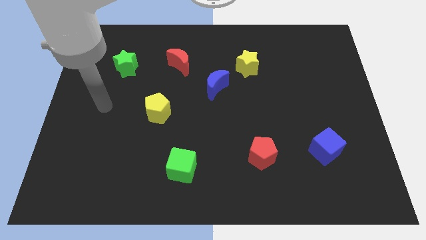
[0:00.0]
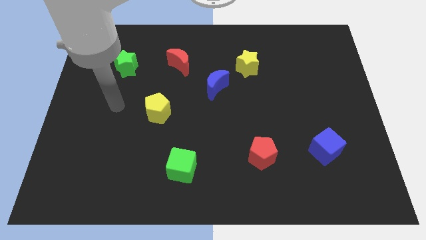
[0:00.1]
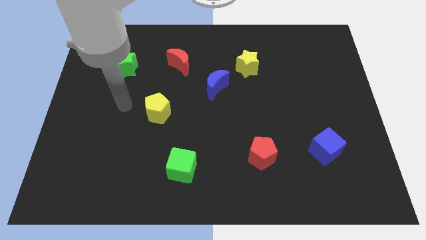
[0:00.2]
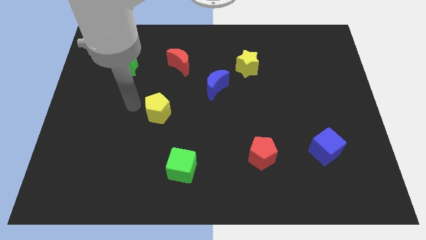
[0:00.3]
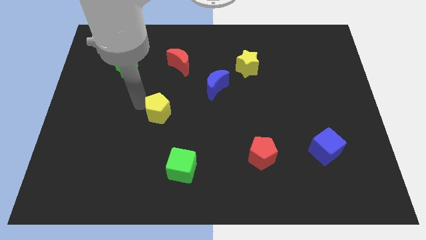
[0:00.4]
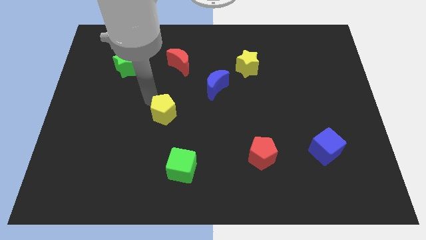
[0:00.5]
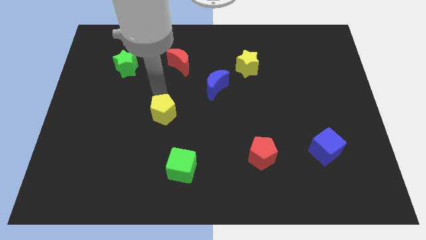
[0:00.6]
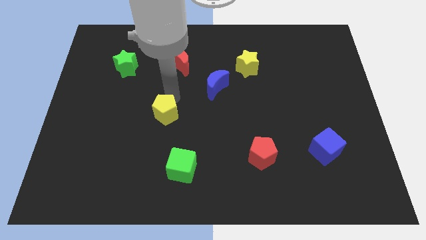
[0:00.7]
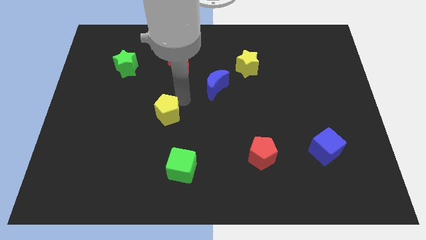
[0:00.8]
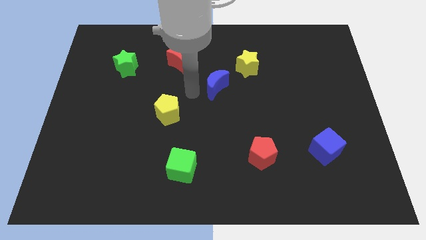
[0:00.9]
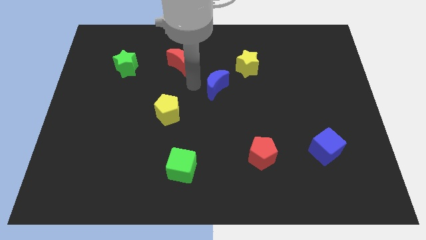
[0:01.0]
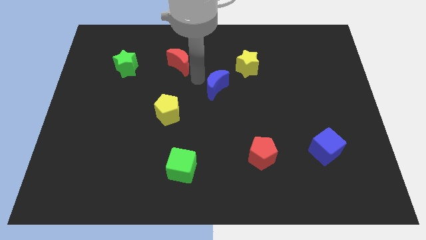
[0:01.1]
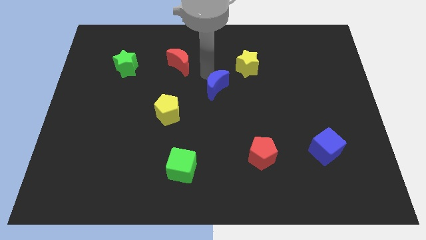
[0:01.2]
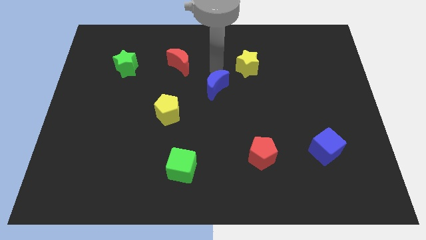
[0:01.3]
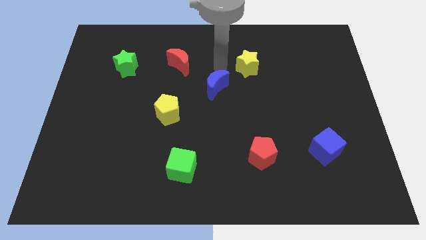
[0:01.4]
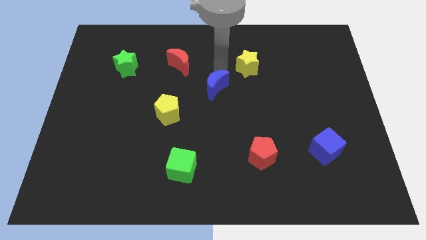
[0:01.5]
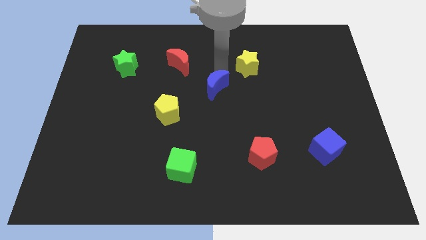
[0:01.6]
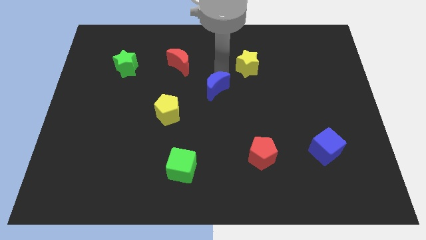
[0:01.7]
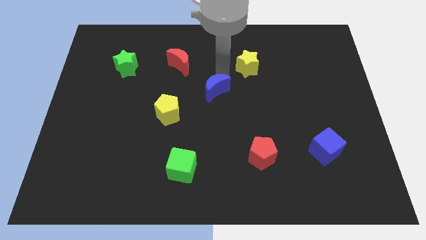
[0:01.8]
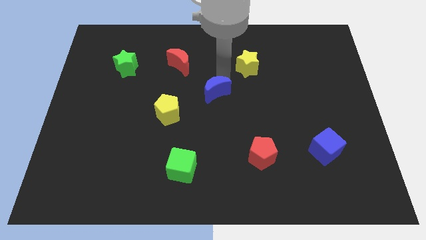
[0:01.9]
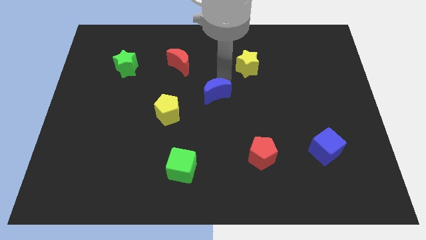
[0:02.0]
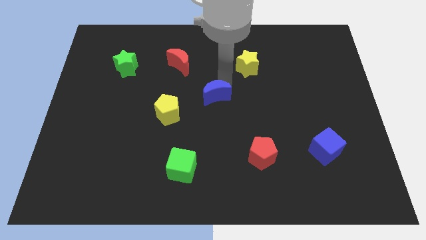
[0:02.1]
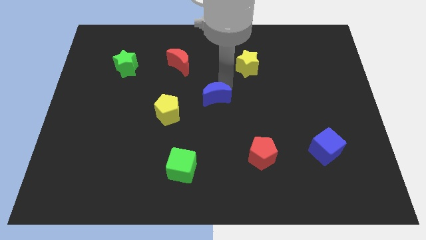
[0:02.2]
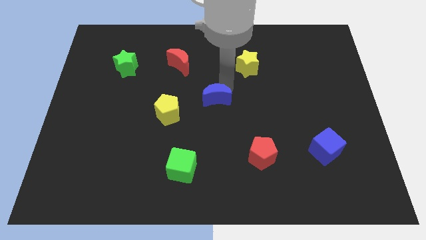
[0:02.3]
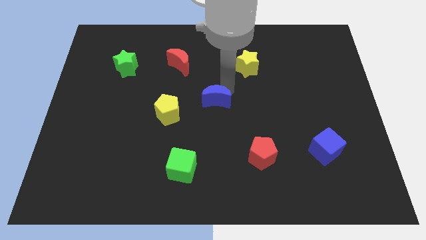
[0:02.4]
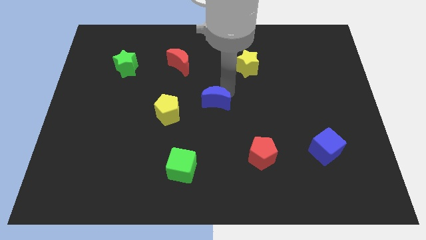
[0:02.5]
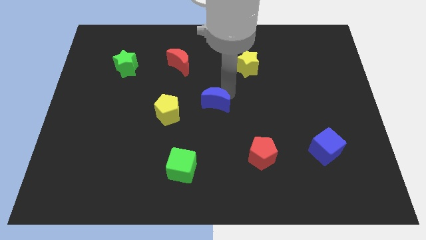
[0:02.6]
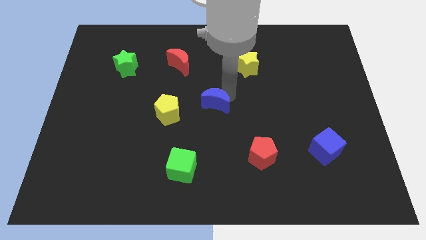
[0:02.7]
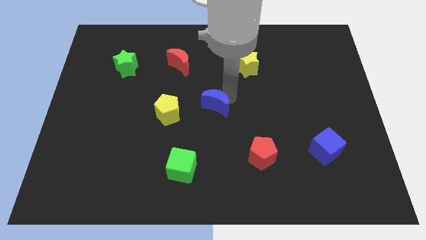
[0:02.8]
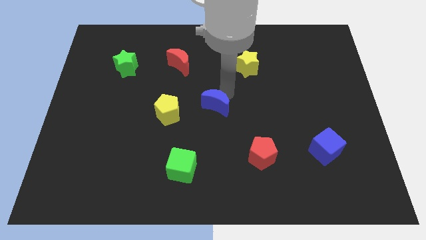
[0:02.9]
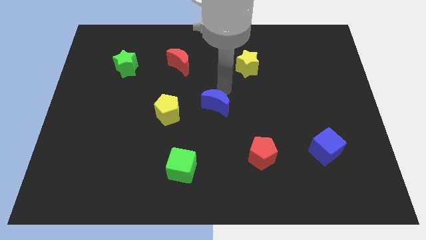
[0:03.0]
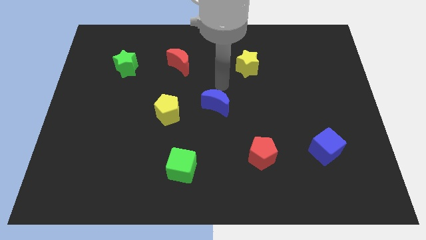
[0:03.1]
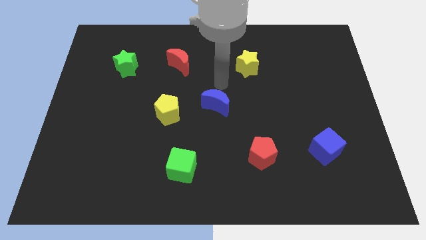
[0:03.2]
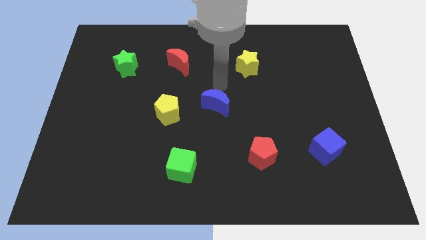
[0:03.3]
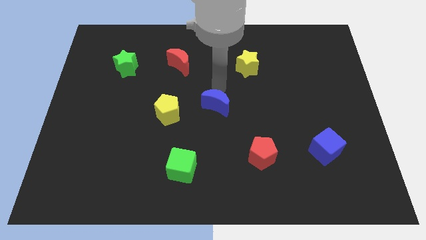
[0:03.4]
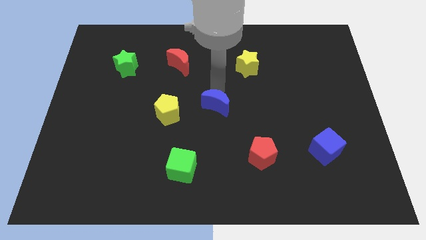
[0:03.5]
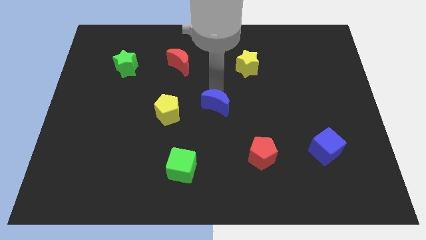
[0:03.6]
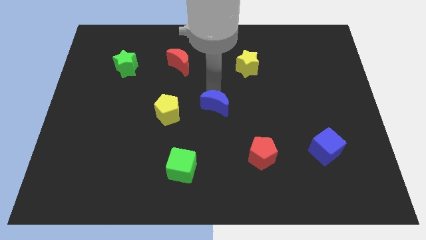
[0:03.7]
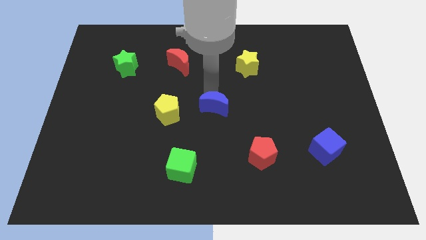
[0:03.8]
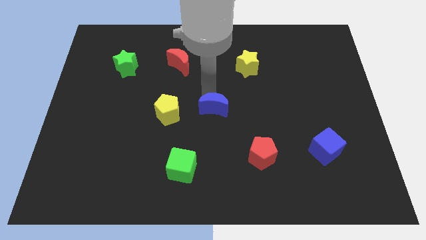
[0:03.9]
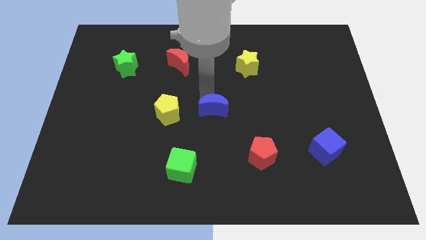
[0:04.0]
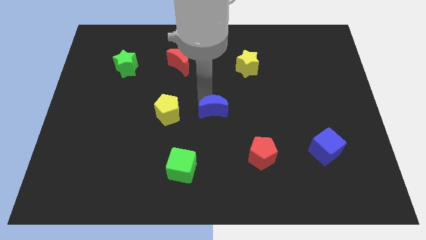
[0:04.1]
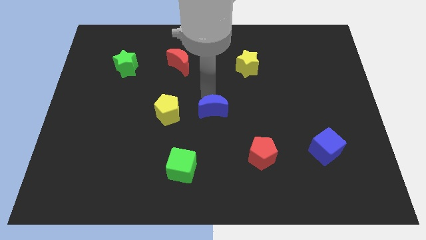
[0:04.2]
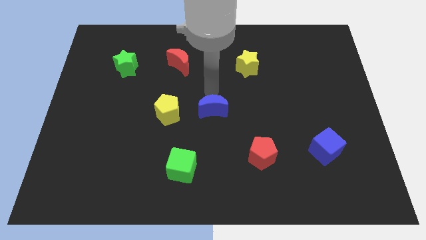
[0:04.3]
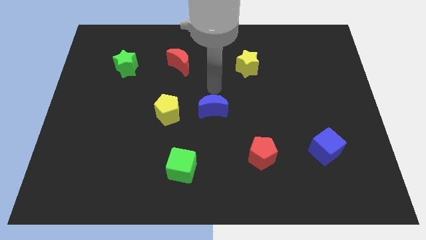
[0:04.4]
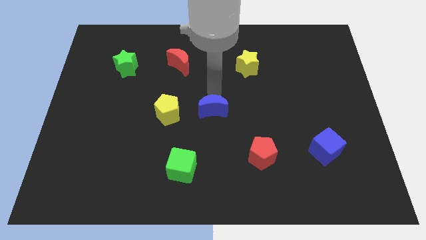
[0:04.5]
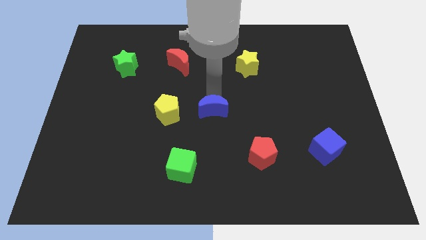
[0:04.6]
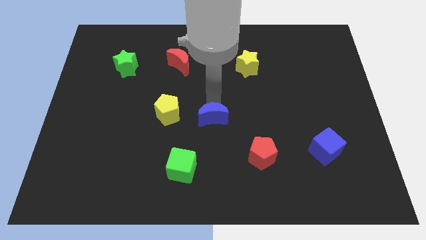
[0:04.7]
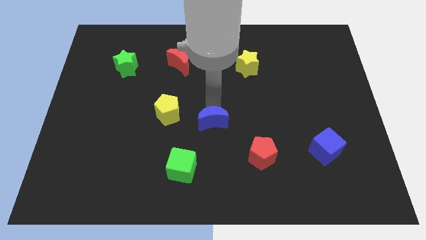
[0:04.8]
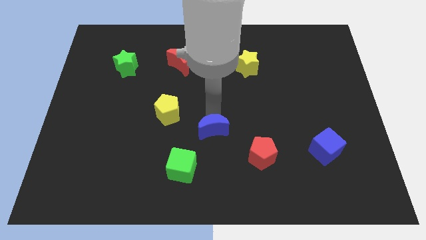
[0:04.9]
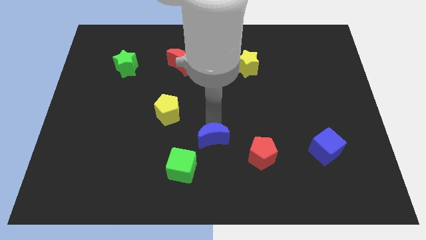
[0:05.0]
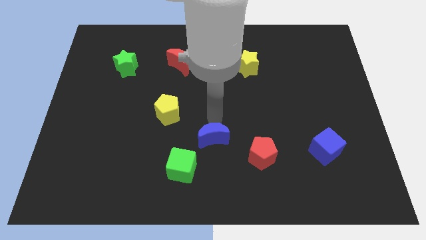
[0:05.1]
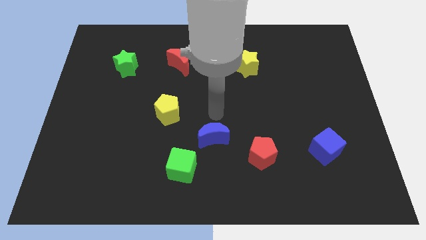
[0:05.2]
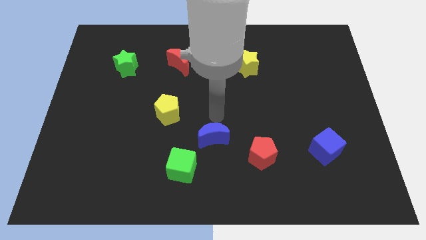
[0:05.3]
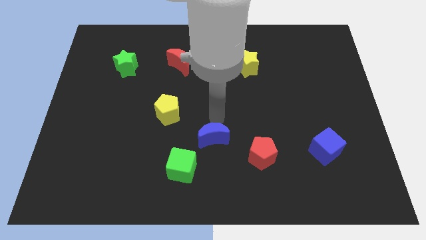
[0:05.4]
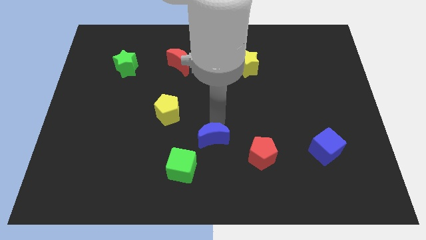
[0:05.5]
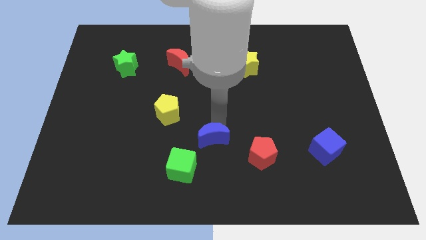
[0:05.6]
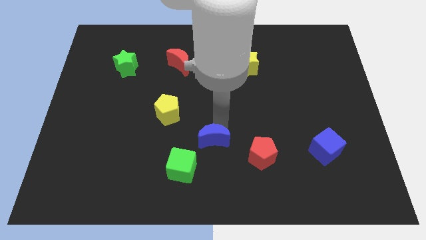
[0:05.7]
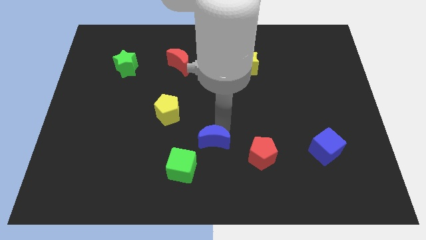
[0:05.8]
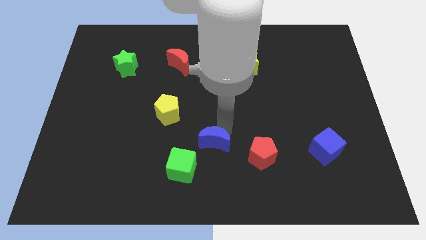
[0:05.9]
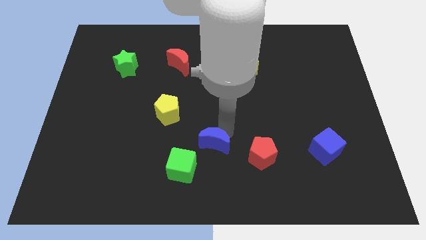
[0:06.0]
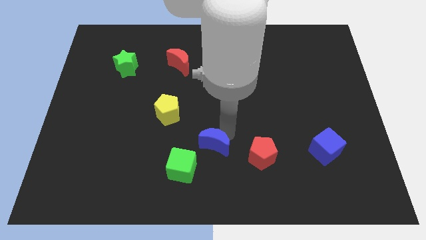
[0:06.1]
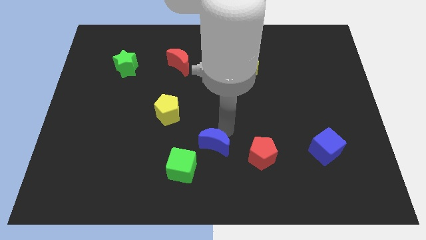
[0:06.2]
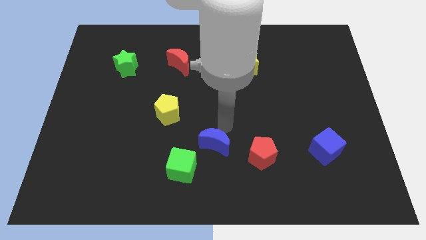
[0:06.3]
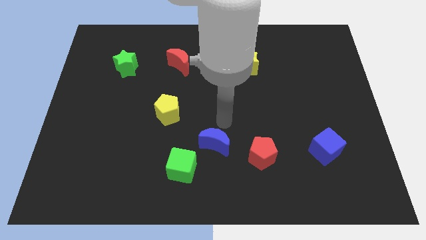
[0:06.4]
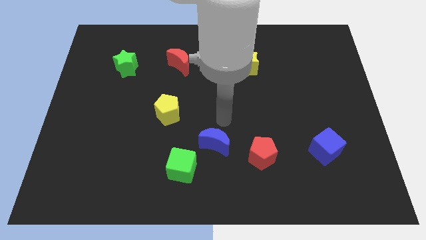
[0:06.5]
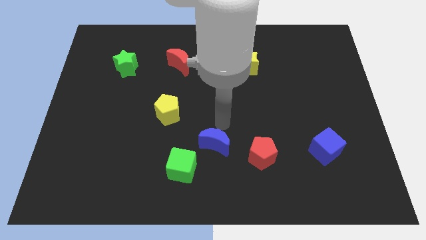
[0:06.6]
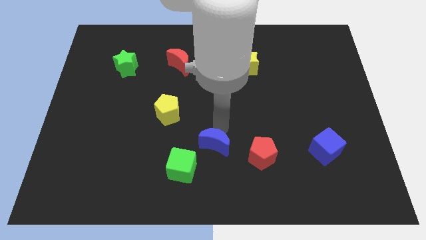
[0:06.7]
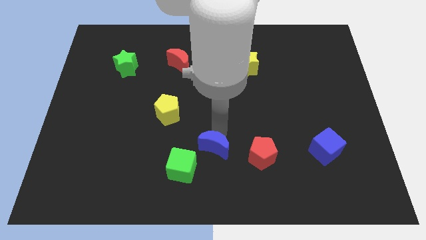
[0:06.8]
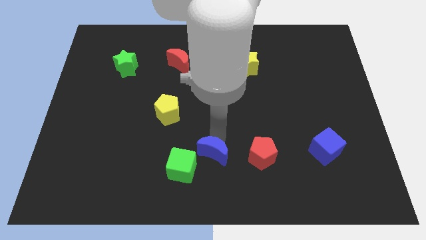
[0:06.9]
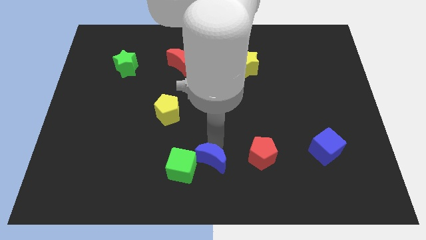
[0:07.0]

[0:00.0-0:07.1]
push the blue moon to the bottom
